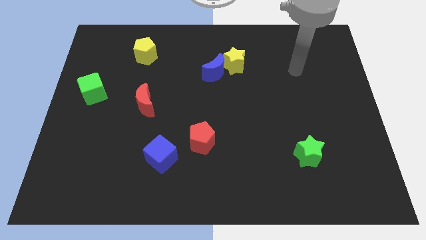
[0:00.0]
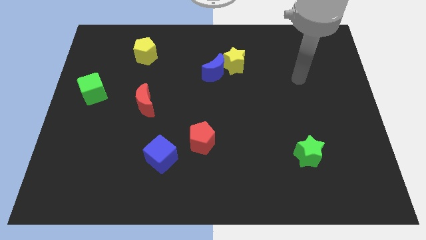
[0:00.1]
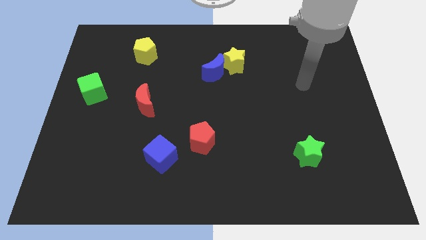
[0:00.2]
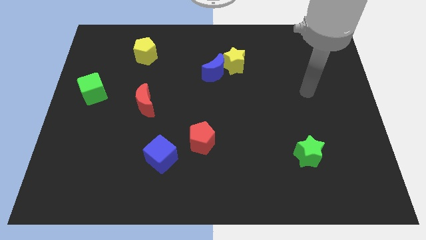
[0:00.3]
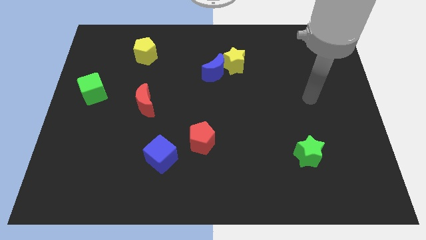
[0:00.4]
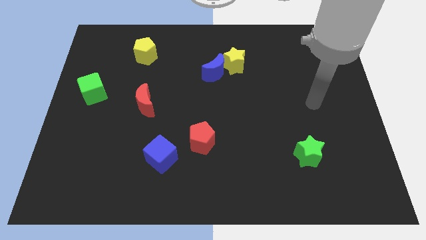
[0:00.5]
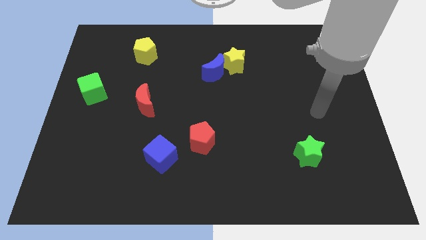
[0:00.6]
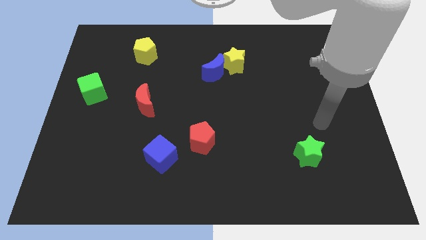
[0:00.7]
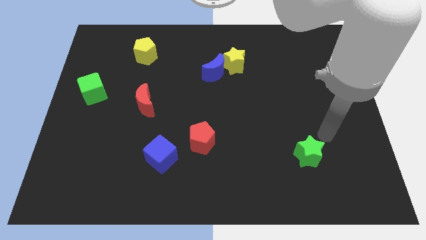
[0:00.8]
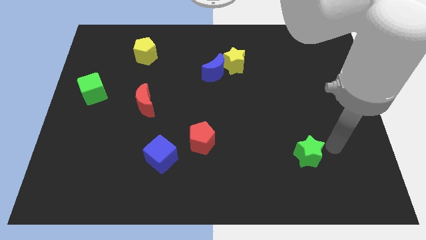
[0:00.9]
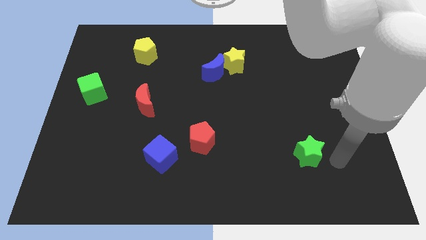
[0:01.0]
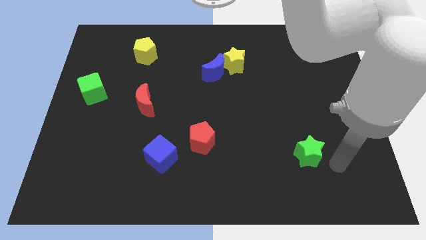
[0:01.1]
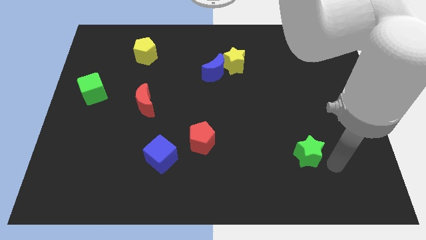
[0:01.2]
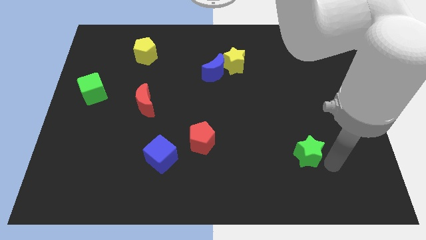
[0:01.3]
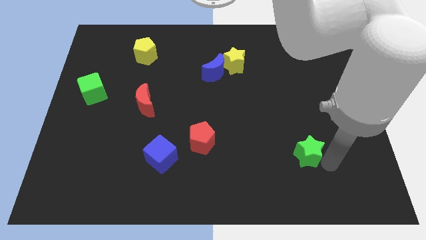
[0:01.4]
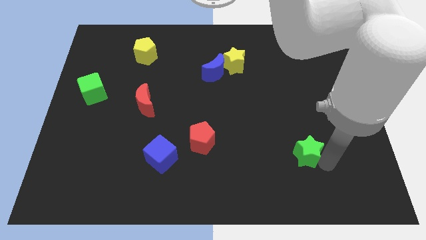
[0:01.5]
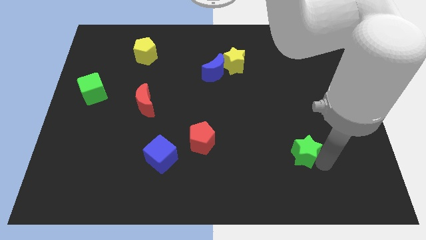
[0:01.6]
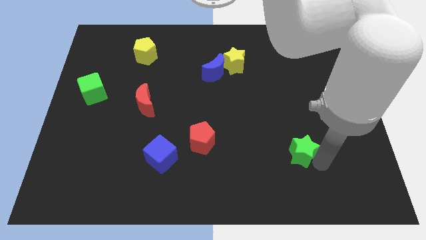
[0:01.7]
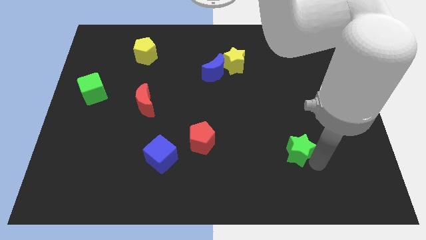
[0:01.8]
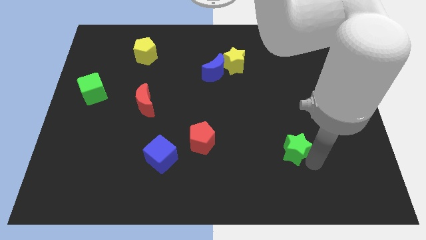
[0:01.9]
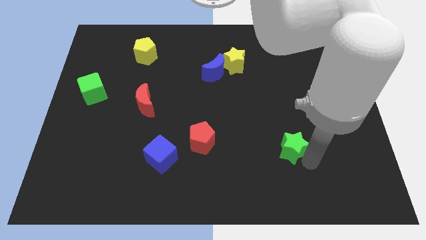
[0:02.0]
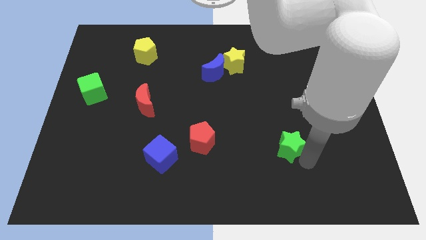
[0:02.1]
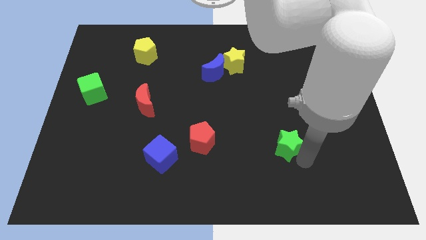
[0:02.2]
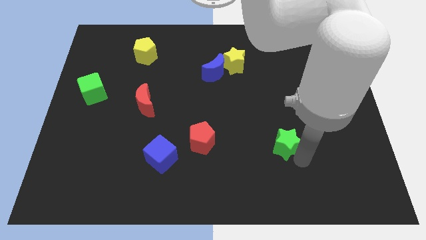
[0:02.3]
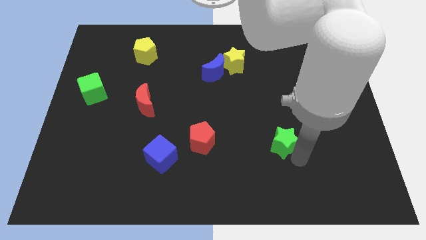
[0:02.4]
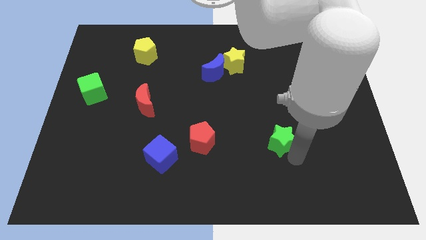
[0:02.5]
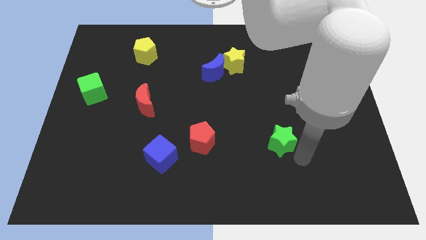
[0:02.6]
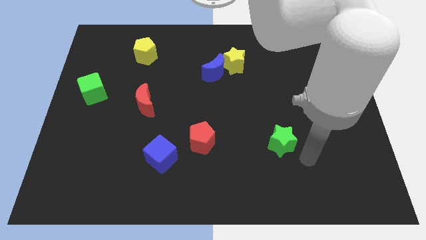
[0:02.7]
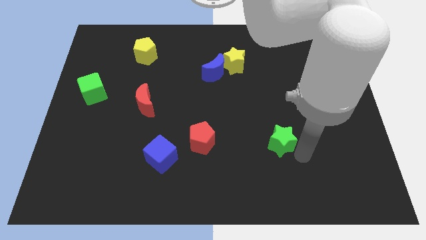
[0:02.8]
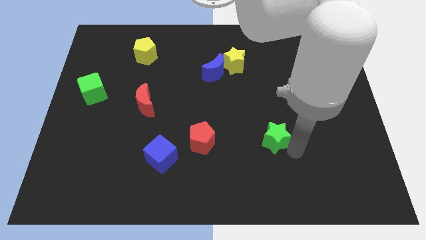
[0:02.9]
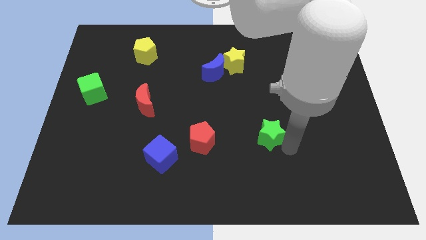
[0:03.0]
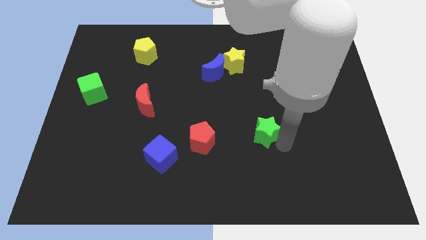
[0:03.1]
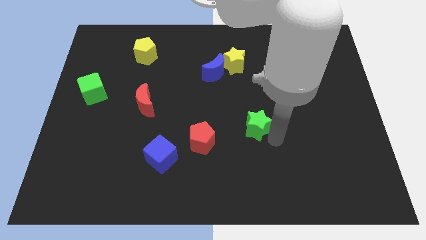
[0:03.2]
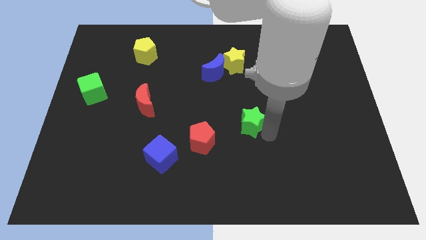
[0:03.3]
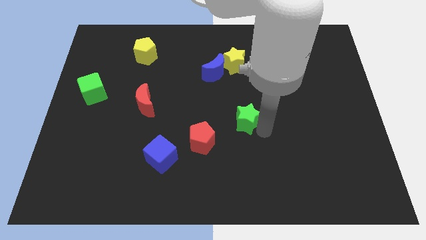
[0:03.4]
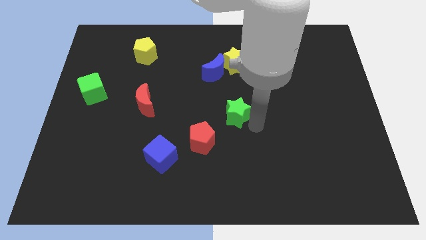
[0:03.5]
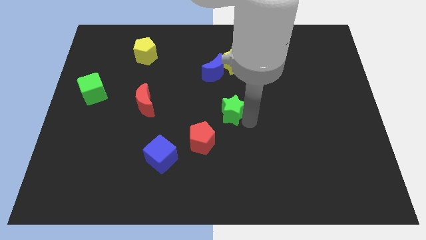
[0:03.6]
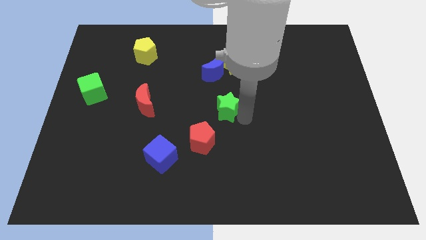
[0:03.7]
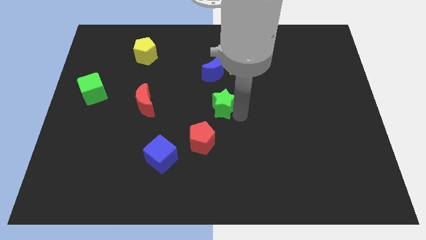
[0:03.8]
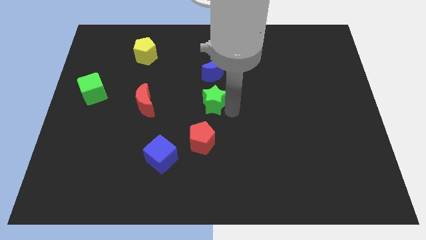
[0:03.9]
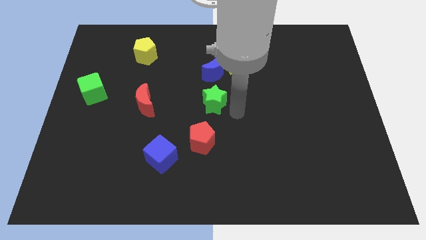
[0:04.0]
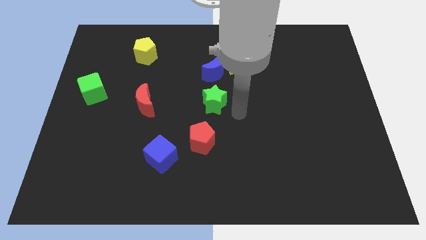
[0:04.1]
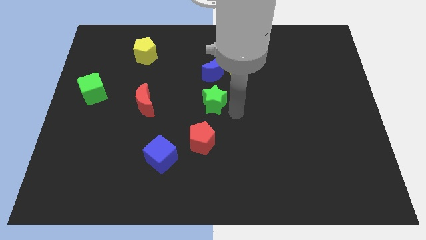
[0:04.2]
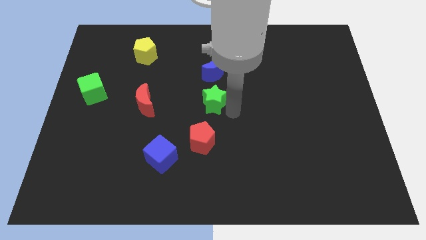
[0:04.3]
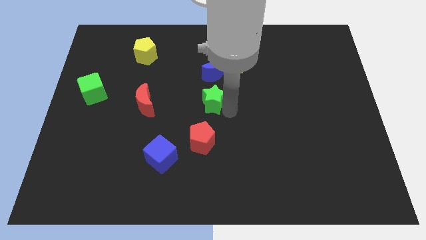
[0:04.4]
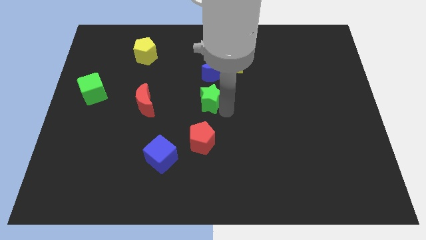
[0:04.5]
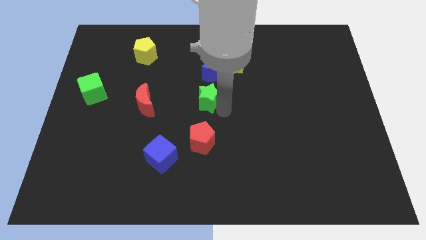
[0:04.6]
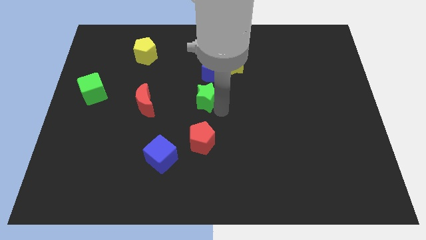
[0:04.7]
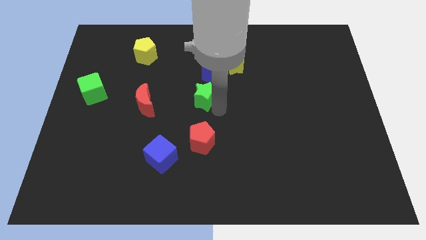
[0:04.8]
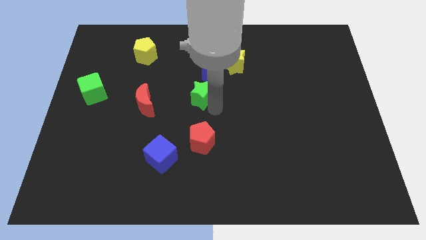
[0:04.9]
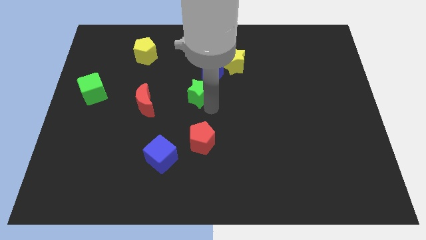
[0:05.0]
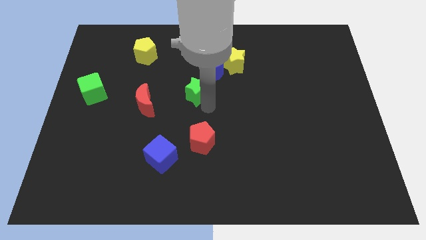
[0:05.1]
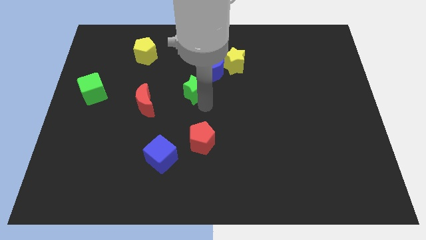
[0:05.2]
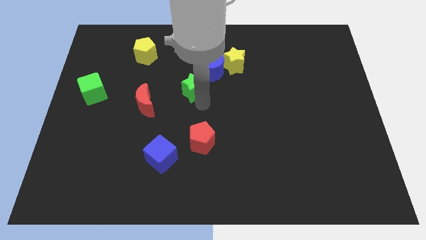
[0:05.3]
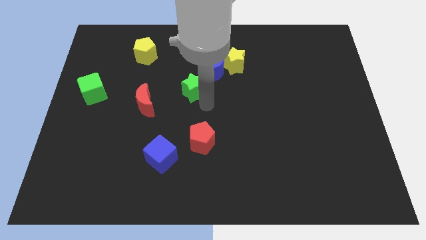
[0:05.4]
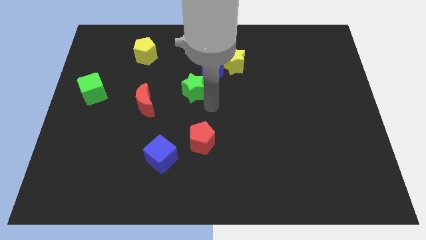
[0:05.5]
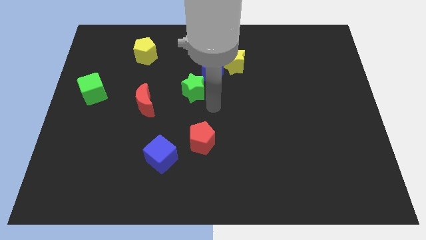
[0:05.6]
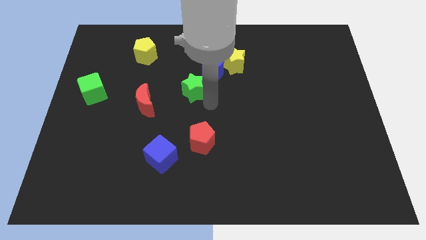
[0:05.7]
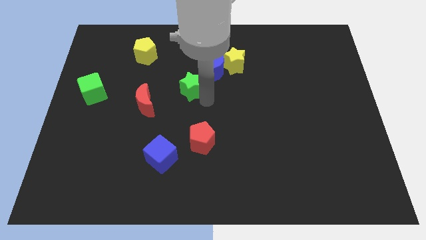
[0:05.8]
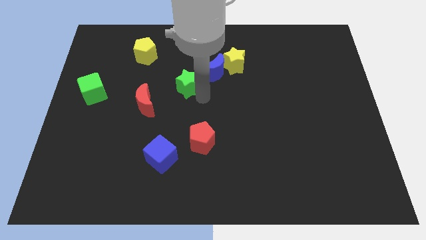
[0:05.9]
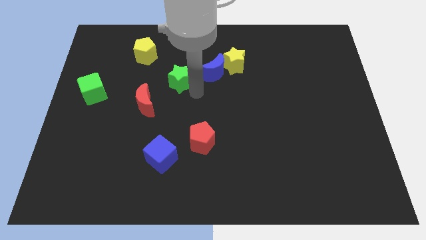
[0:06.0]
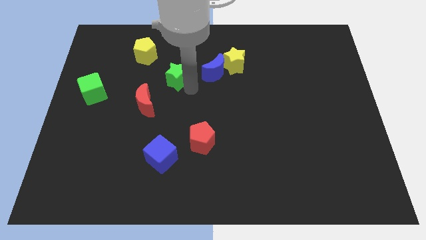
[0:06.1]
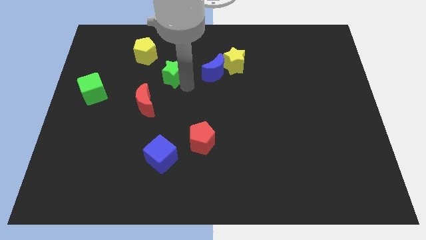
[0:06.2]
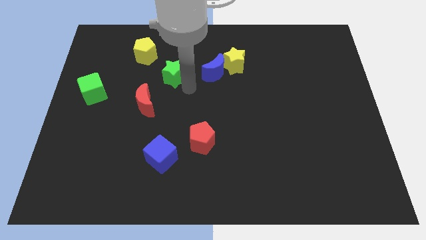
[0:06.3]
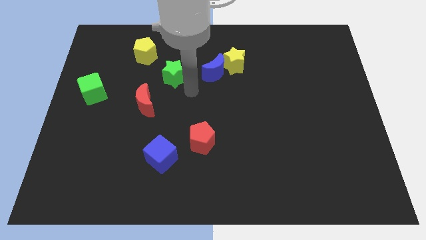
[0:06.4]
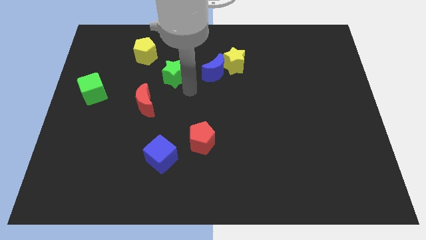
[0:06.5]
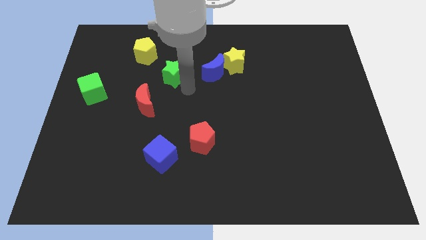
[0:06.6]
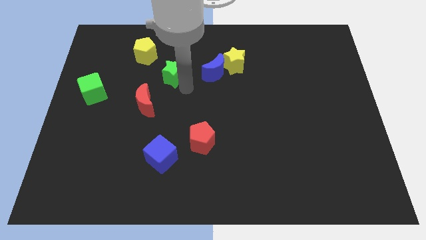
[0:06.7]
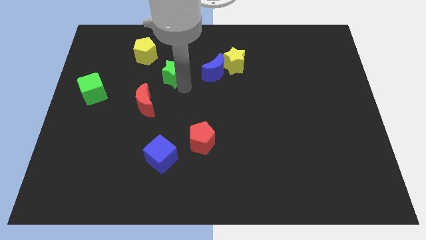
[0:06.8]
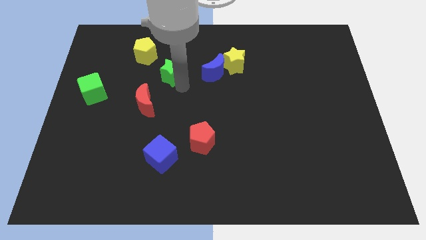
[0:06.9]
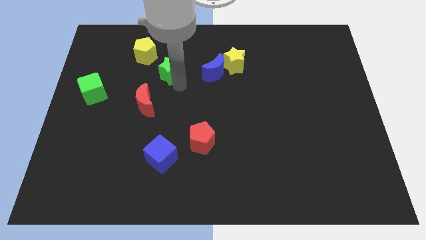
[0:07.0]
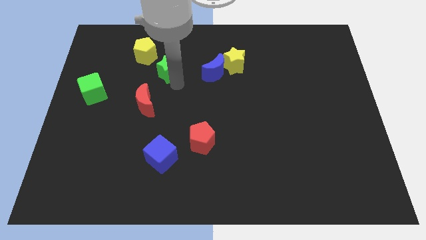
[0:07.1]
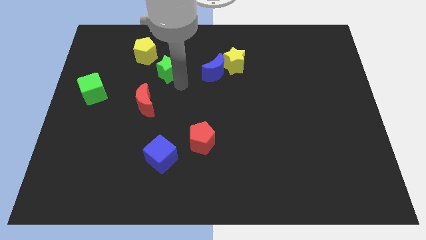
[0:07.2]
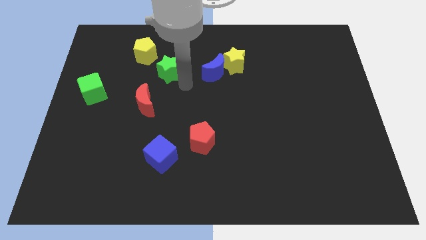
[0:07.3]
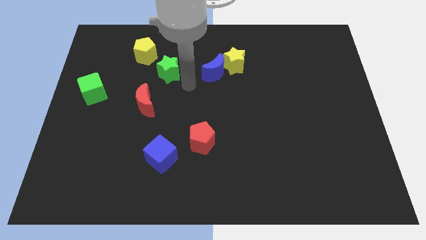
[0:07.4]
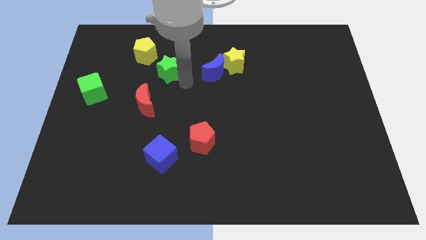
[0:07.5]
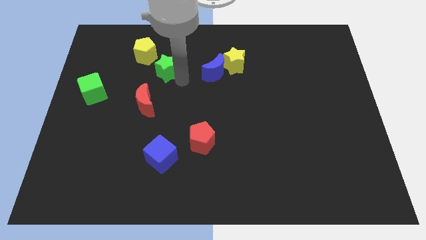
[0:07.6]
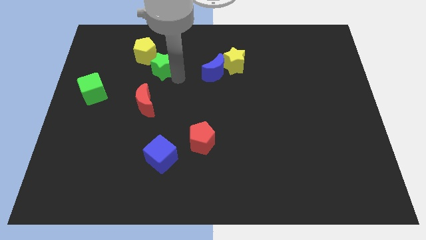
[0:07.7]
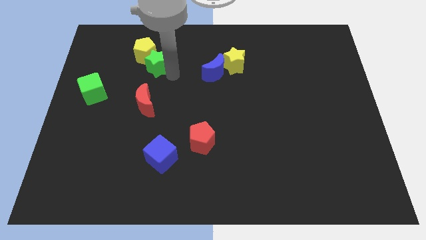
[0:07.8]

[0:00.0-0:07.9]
put the green star towards the yellow pentagon

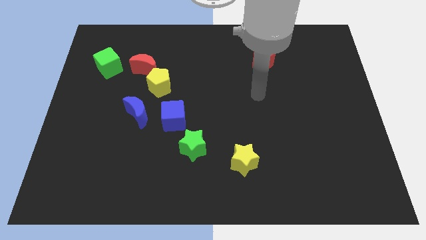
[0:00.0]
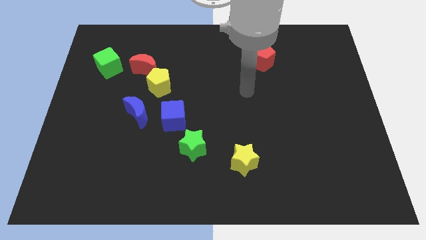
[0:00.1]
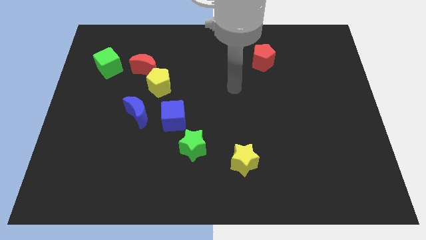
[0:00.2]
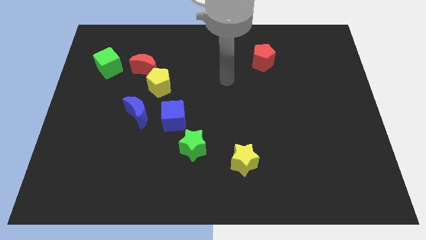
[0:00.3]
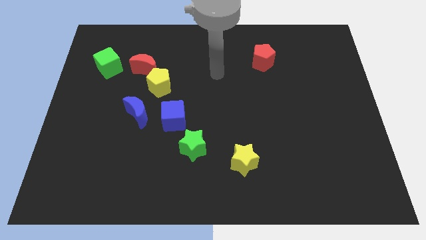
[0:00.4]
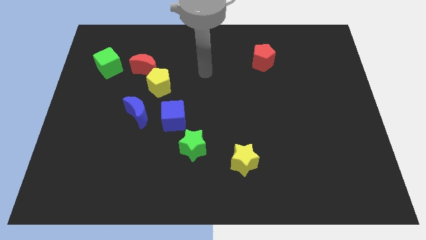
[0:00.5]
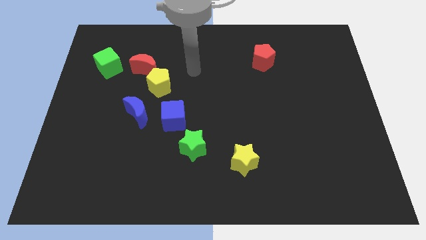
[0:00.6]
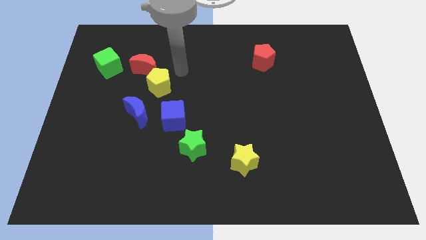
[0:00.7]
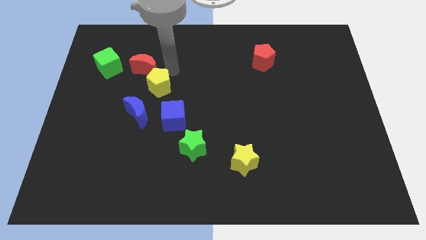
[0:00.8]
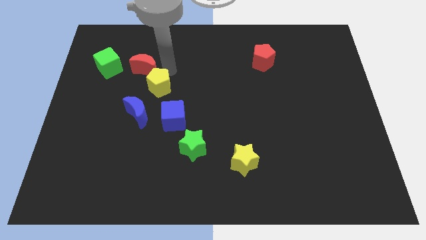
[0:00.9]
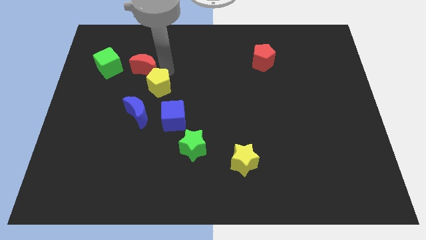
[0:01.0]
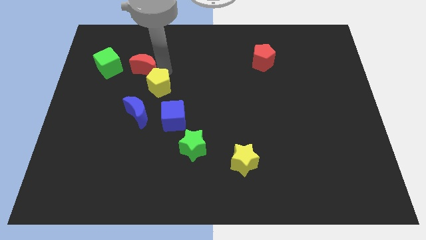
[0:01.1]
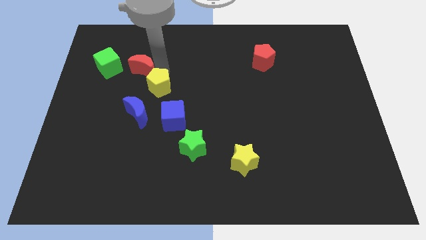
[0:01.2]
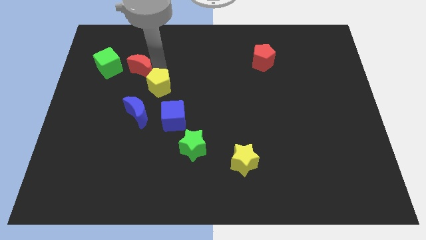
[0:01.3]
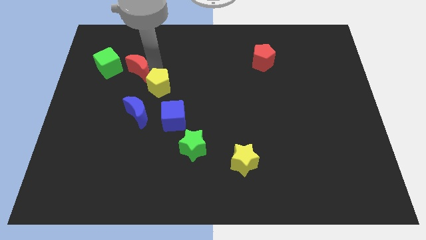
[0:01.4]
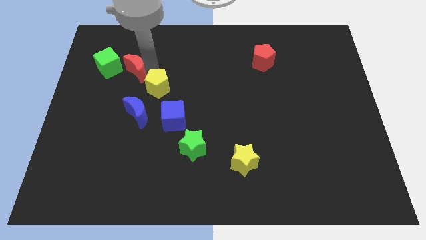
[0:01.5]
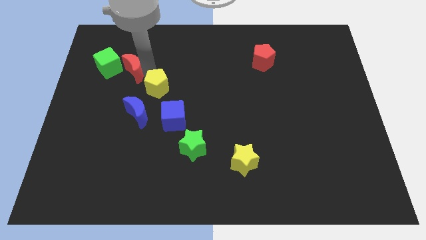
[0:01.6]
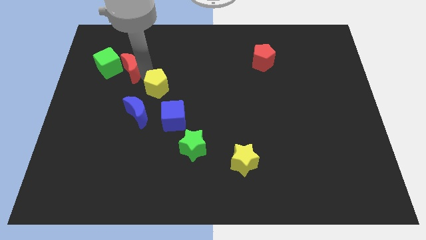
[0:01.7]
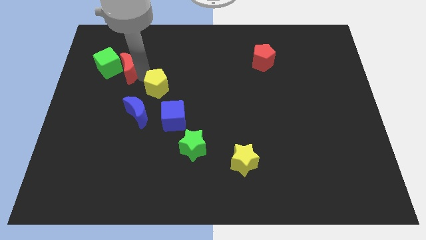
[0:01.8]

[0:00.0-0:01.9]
push the red moon close to the green cube
